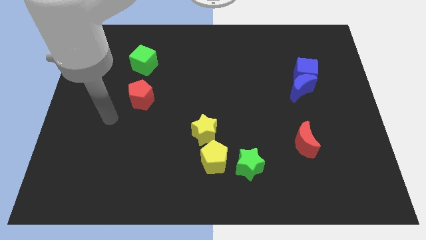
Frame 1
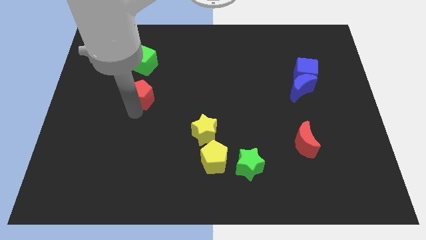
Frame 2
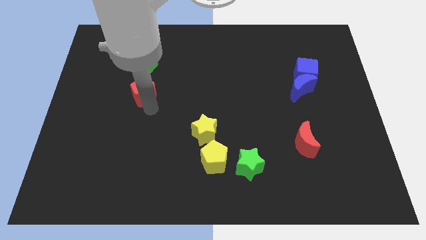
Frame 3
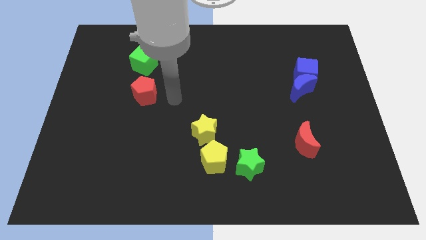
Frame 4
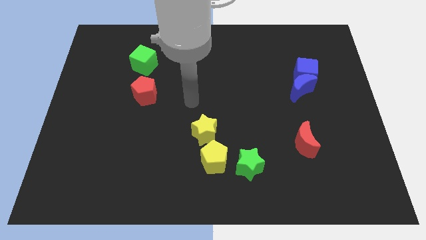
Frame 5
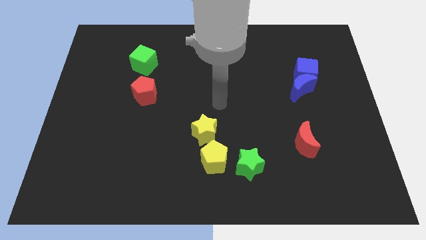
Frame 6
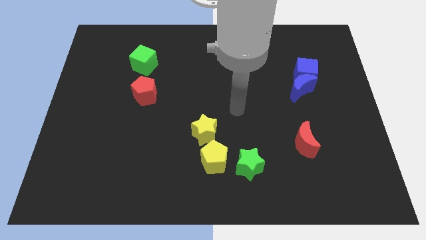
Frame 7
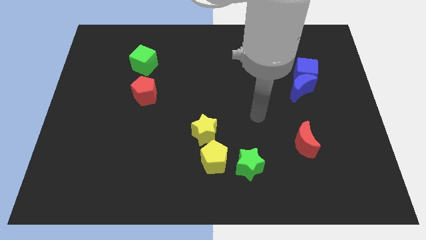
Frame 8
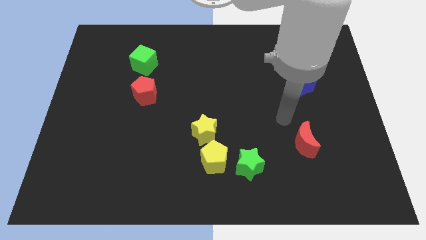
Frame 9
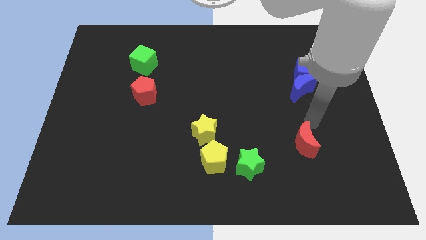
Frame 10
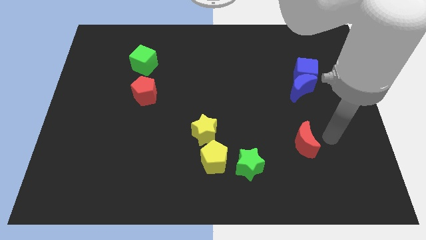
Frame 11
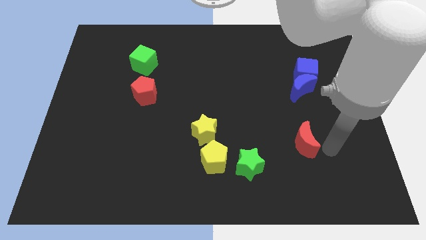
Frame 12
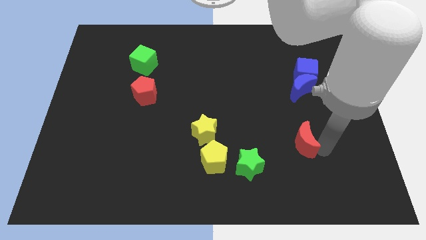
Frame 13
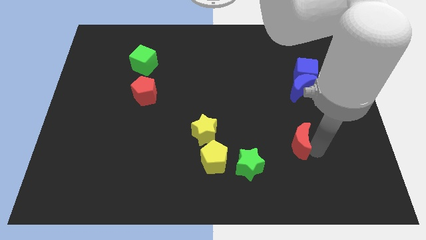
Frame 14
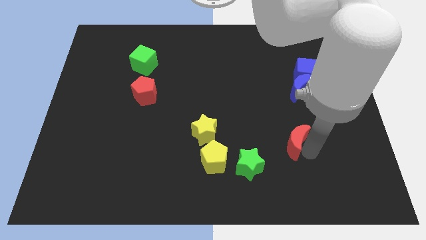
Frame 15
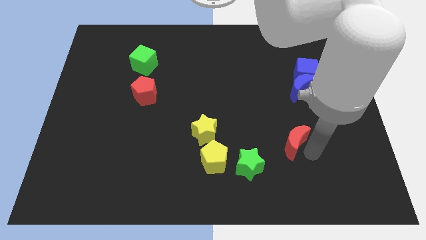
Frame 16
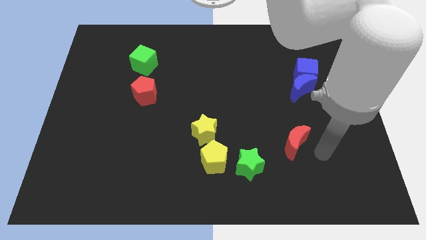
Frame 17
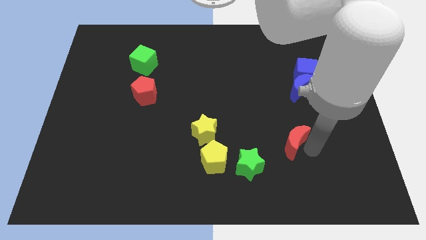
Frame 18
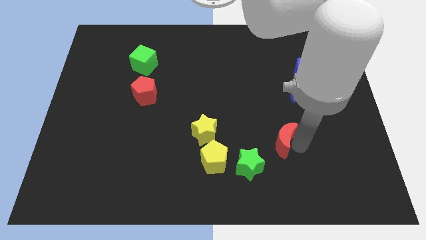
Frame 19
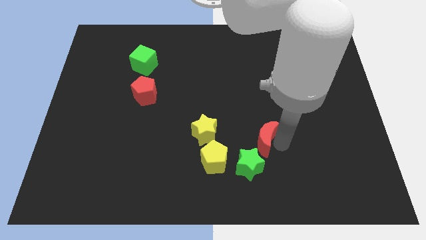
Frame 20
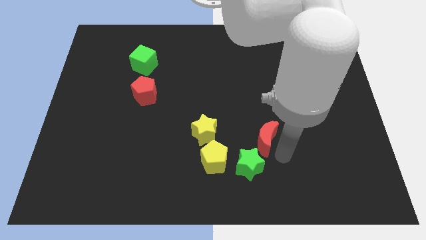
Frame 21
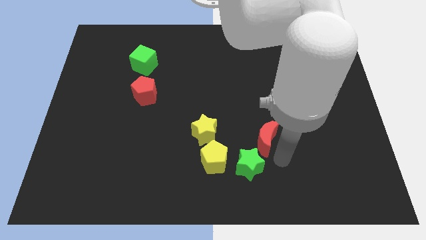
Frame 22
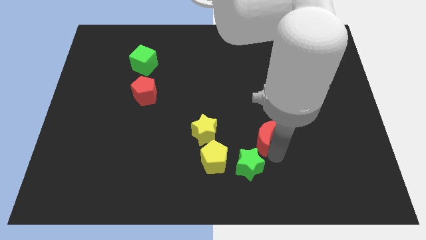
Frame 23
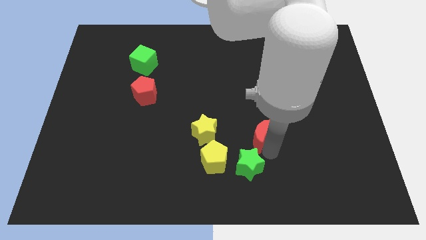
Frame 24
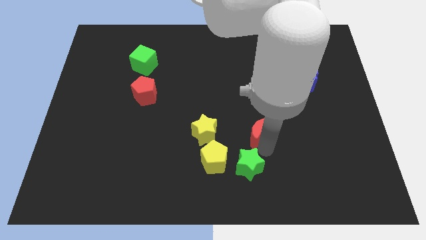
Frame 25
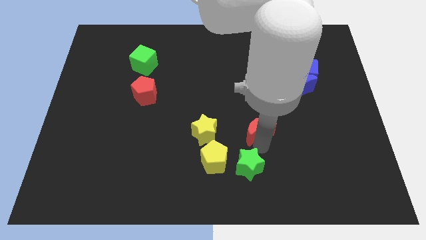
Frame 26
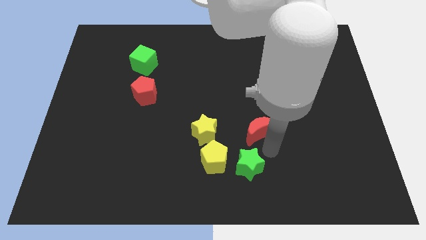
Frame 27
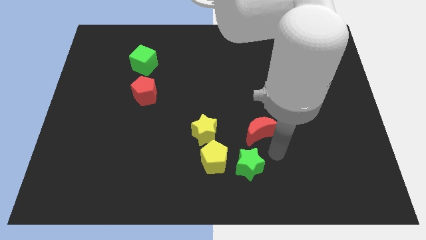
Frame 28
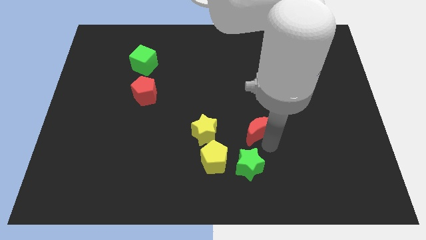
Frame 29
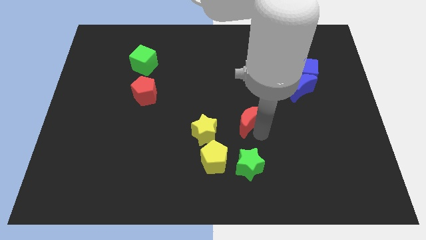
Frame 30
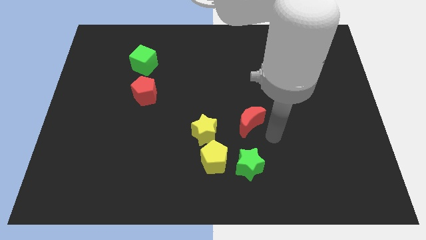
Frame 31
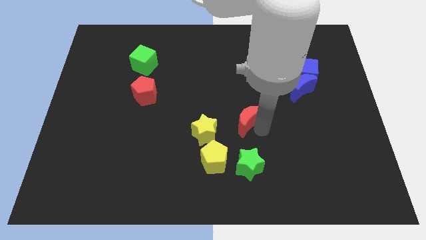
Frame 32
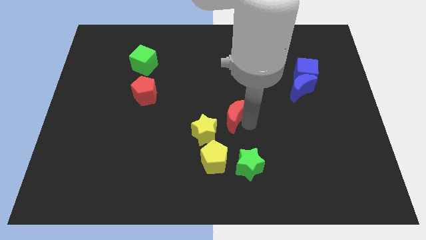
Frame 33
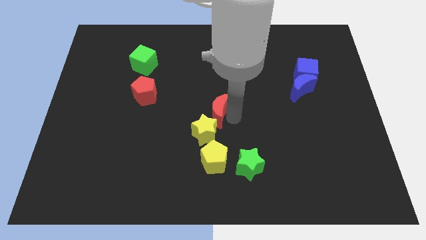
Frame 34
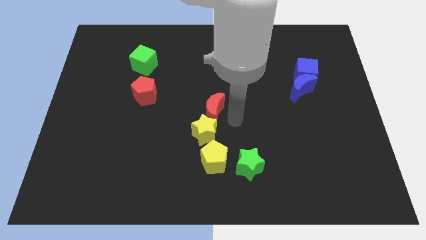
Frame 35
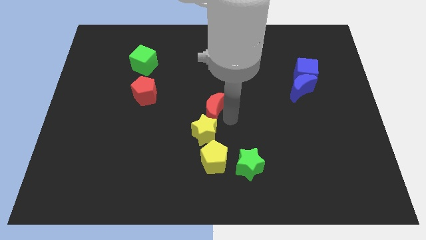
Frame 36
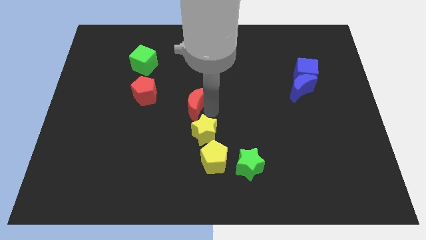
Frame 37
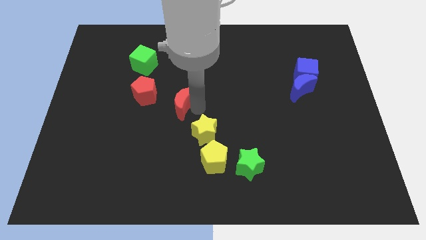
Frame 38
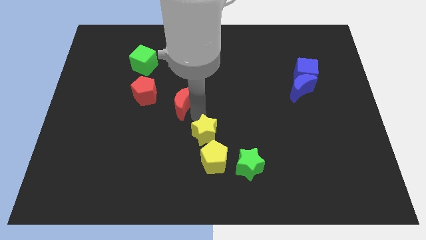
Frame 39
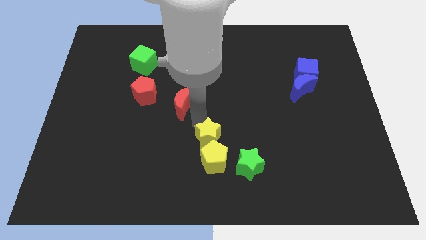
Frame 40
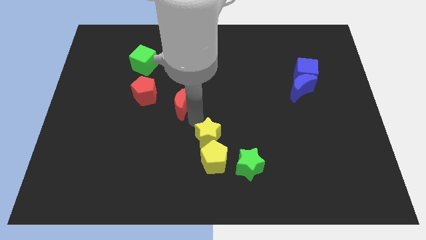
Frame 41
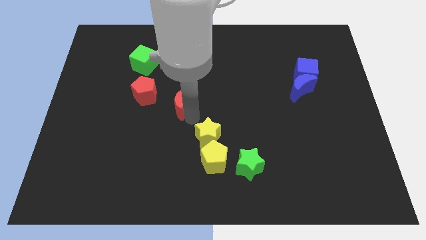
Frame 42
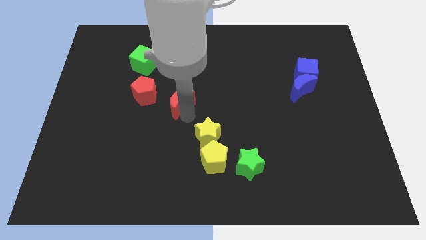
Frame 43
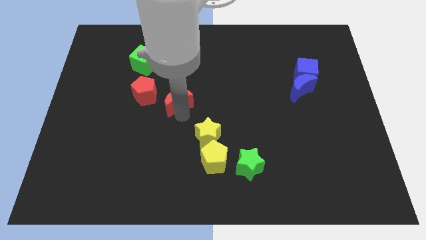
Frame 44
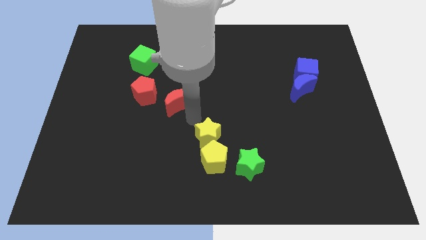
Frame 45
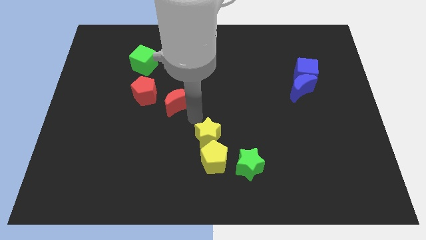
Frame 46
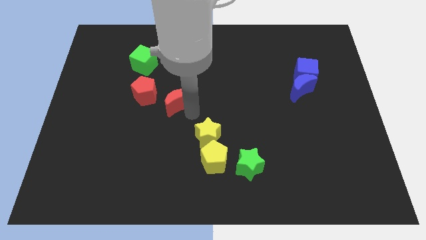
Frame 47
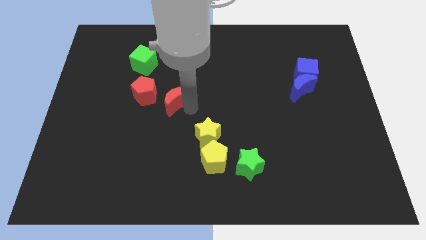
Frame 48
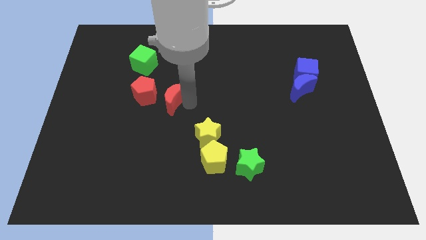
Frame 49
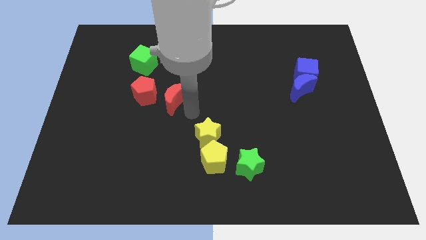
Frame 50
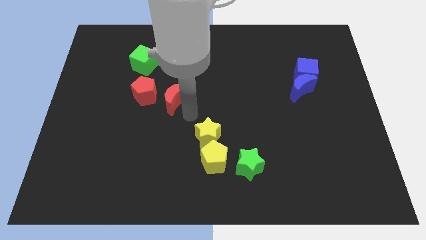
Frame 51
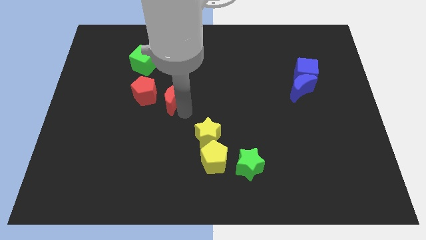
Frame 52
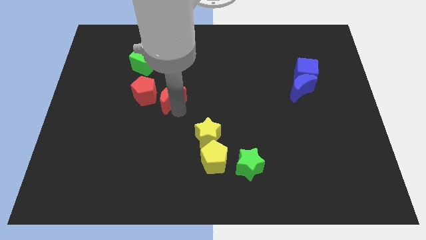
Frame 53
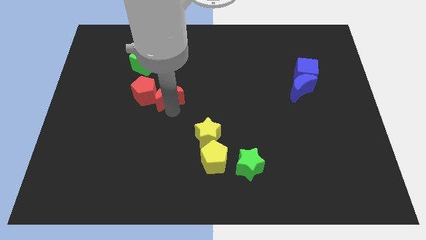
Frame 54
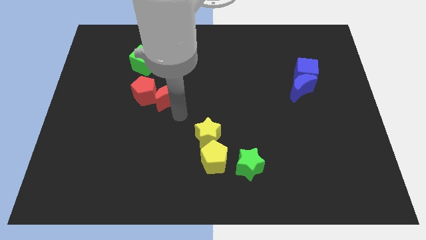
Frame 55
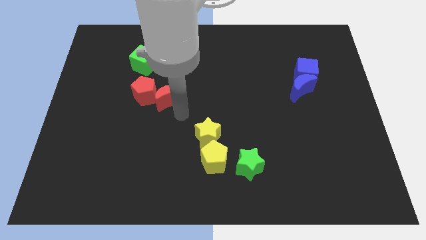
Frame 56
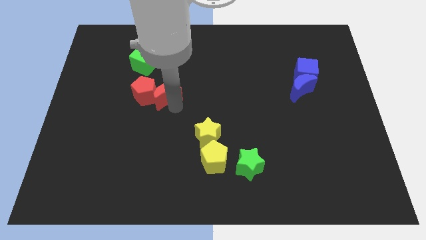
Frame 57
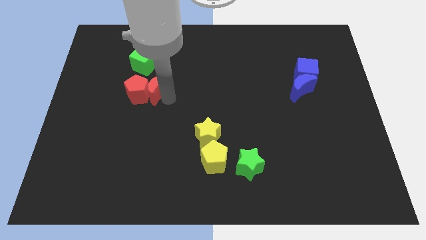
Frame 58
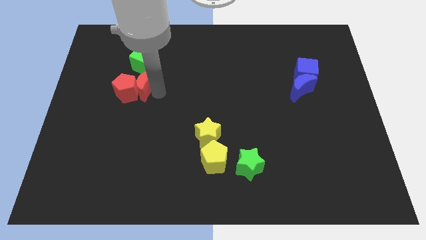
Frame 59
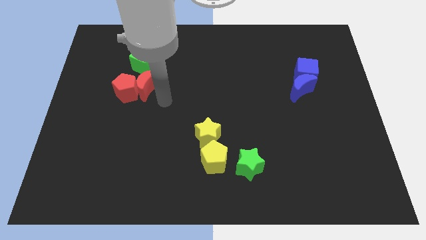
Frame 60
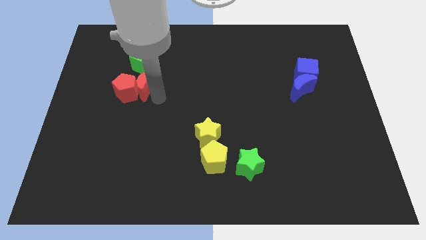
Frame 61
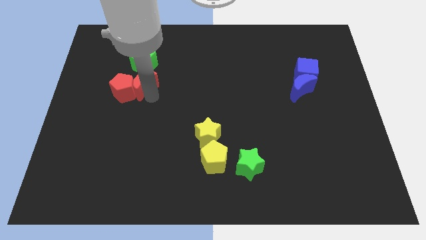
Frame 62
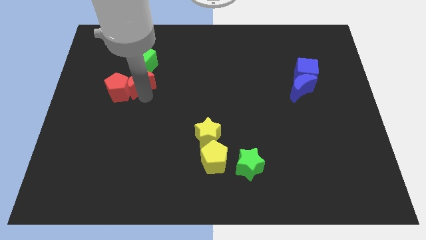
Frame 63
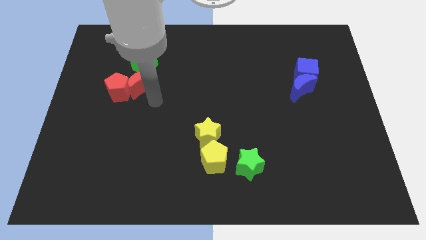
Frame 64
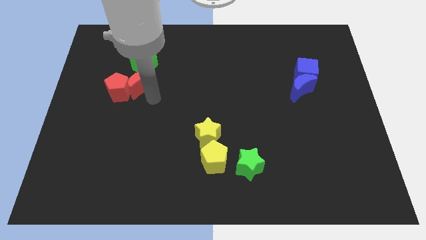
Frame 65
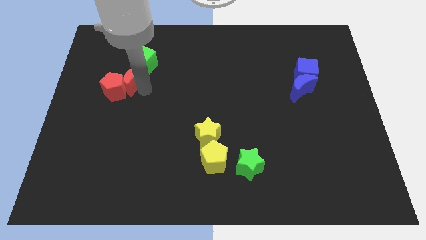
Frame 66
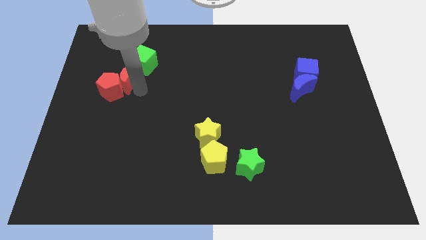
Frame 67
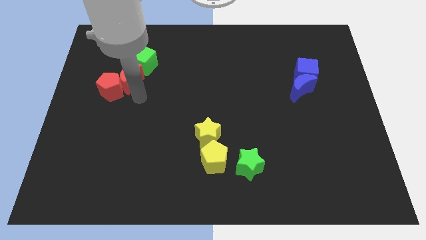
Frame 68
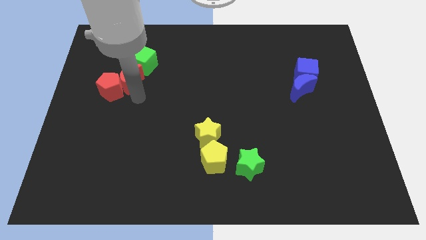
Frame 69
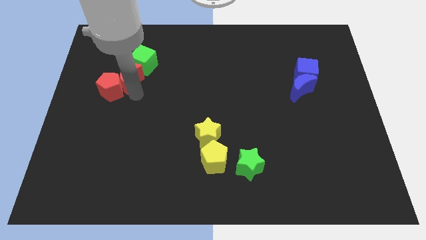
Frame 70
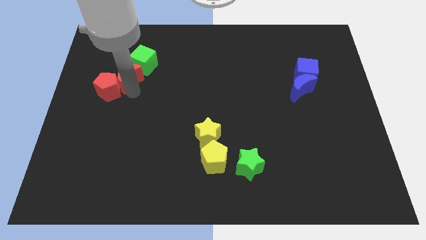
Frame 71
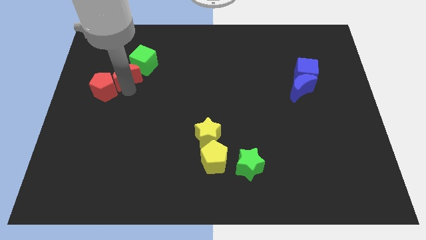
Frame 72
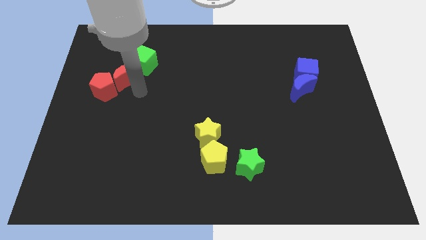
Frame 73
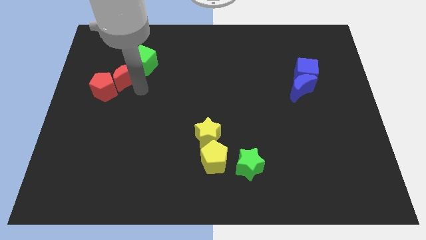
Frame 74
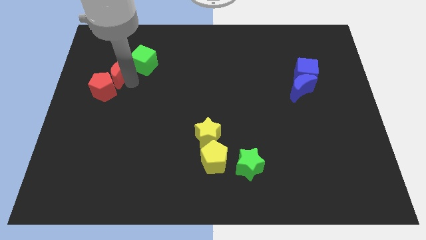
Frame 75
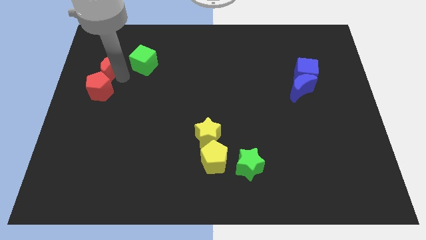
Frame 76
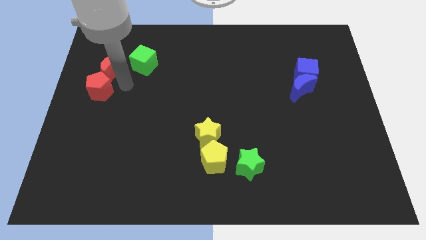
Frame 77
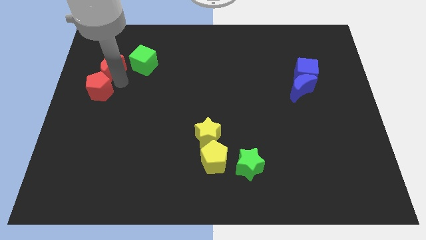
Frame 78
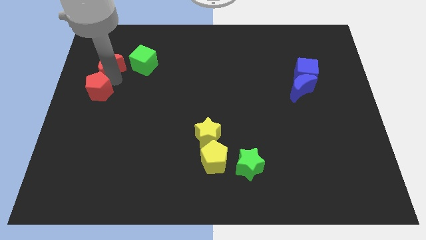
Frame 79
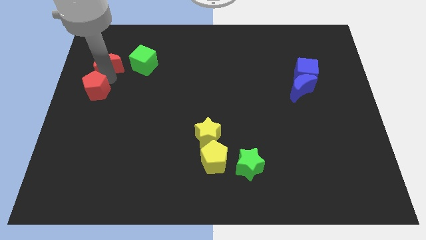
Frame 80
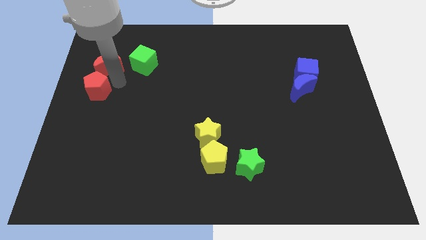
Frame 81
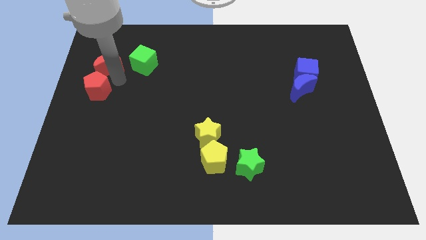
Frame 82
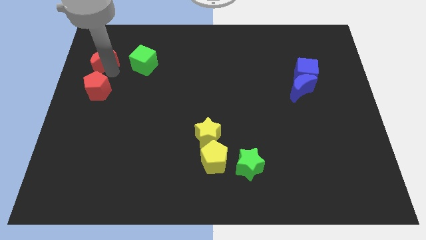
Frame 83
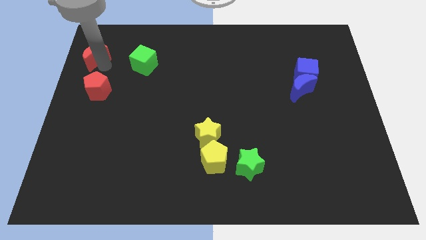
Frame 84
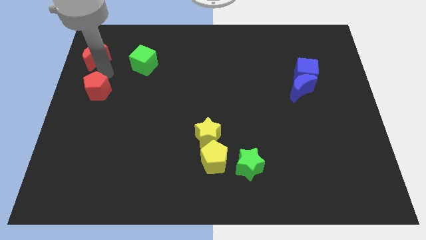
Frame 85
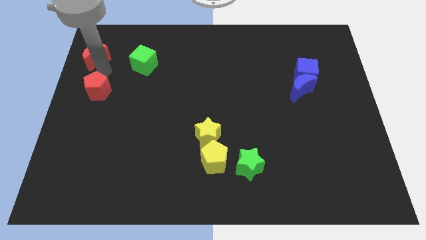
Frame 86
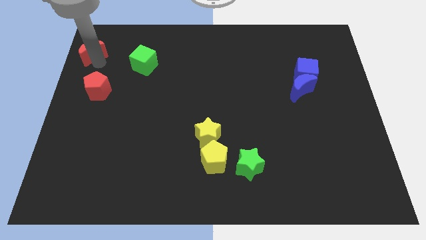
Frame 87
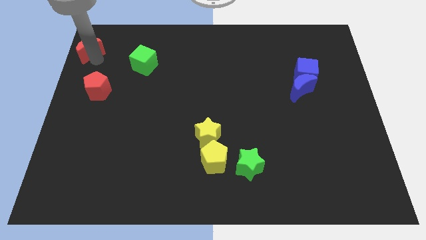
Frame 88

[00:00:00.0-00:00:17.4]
slide the red moon to the top left
